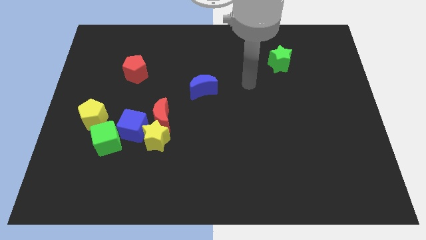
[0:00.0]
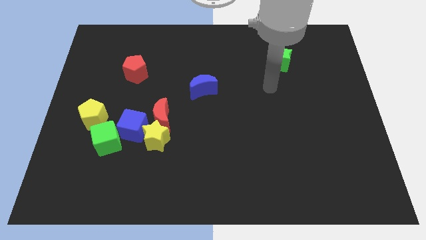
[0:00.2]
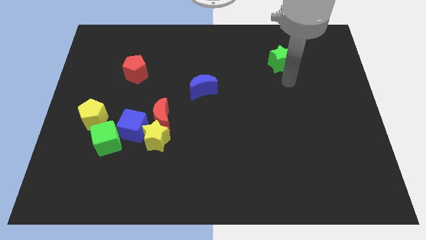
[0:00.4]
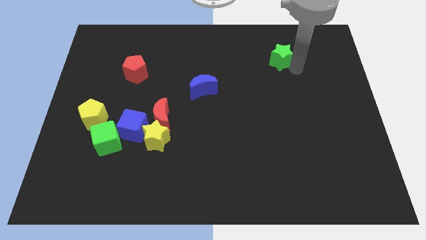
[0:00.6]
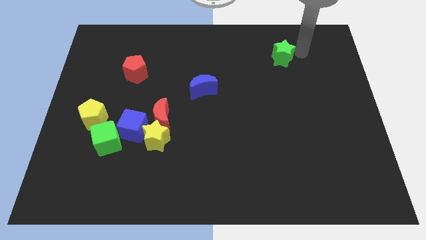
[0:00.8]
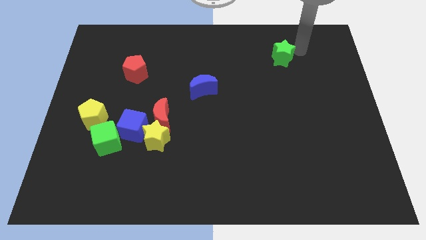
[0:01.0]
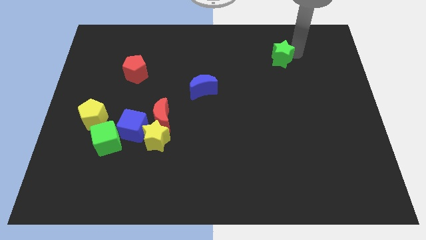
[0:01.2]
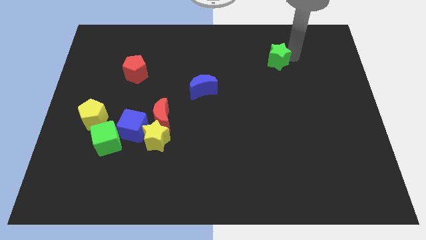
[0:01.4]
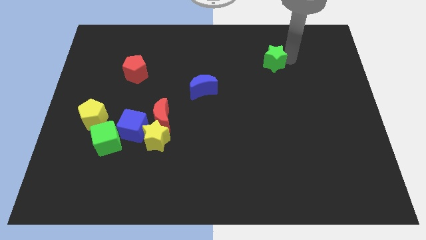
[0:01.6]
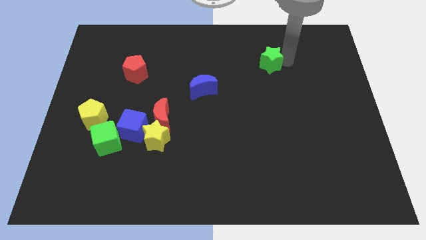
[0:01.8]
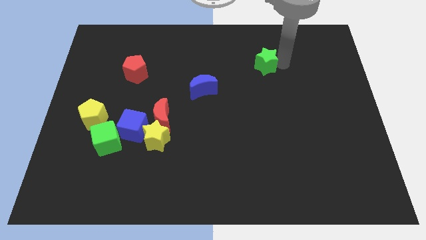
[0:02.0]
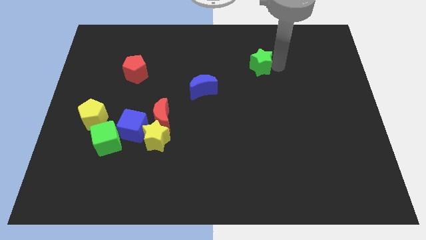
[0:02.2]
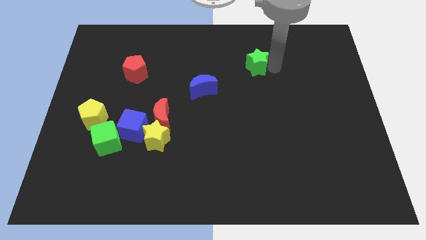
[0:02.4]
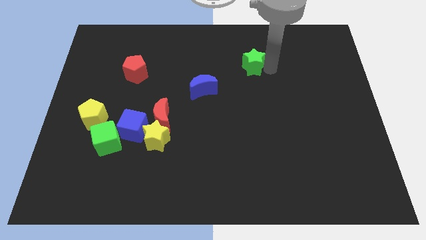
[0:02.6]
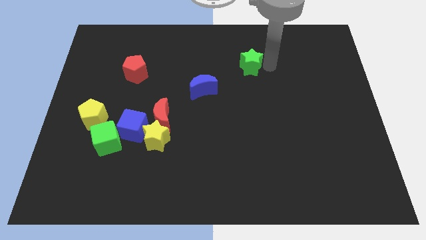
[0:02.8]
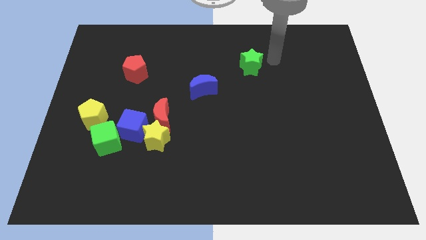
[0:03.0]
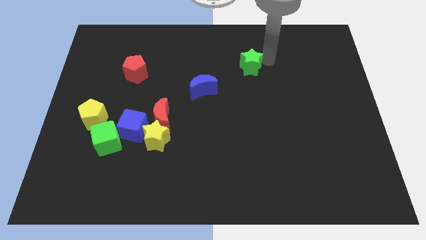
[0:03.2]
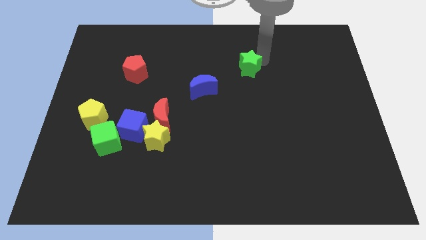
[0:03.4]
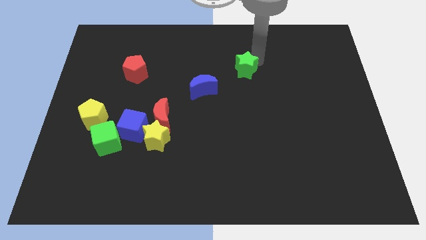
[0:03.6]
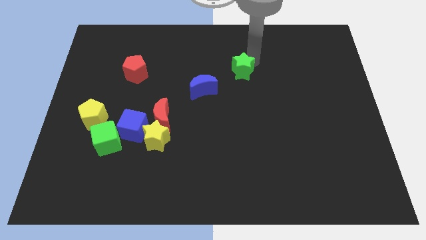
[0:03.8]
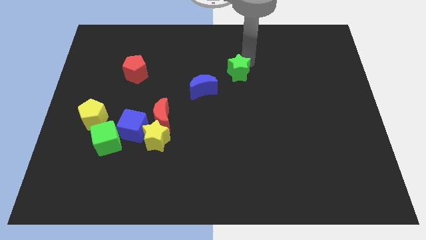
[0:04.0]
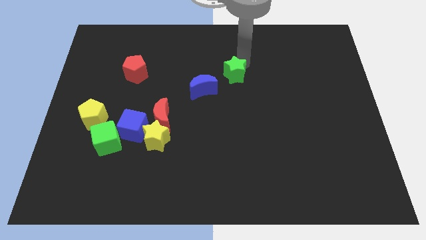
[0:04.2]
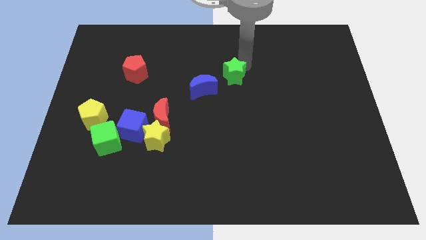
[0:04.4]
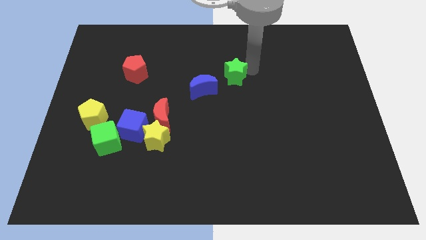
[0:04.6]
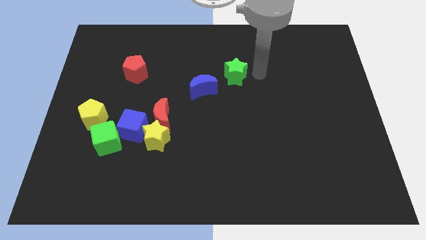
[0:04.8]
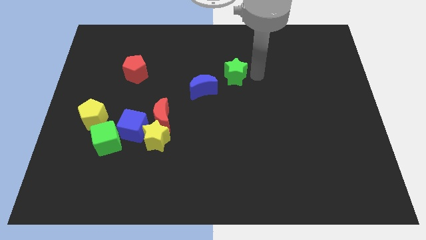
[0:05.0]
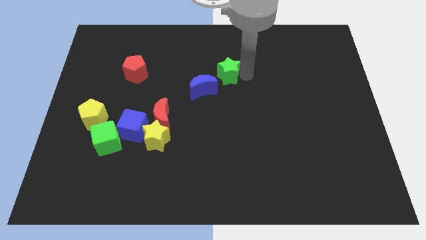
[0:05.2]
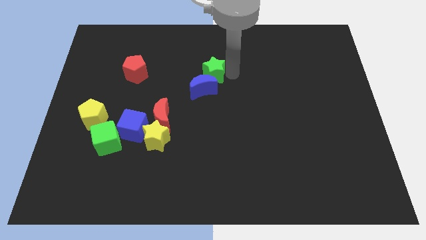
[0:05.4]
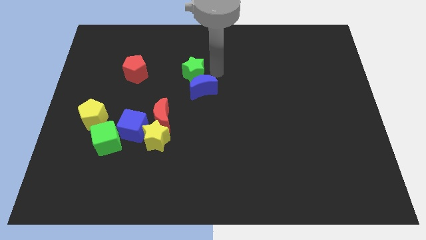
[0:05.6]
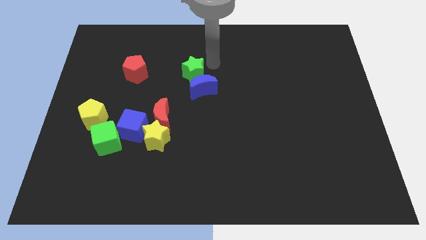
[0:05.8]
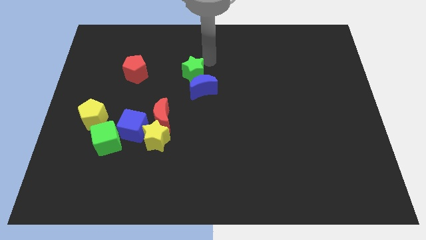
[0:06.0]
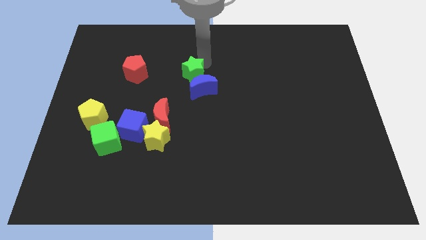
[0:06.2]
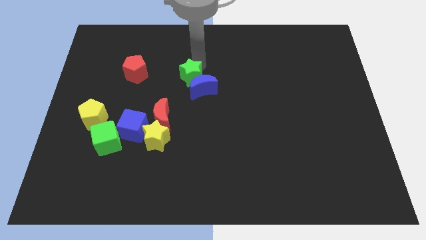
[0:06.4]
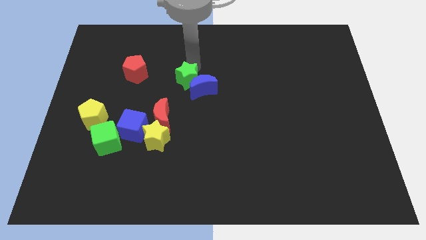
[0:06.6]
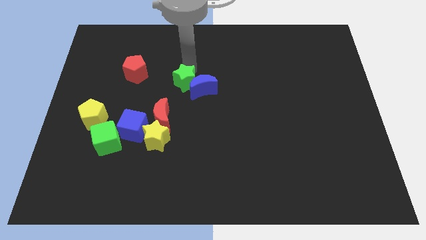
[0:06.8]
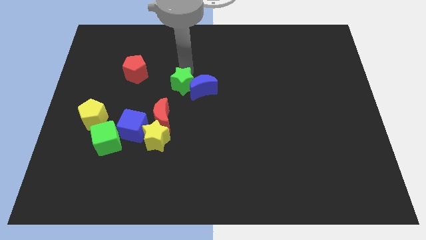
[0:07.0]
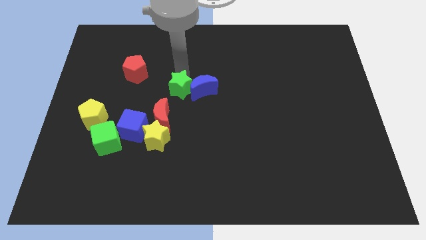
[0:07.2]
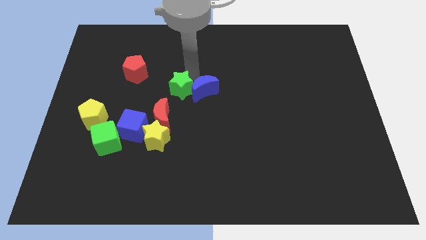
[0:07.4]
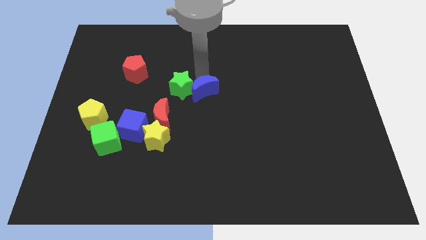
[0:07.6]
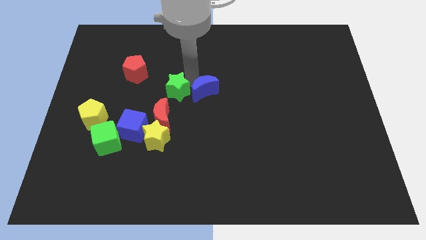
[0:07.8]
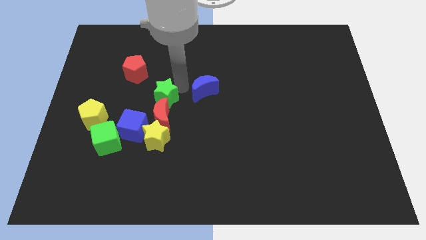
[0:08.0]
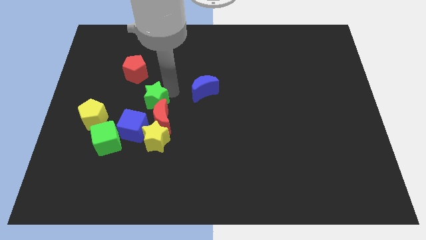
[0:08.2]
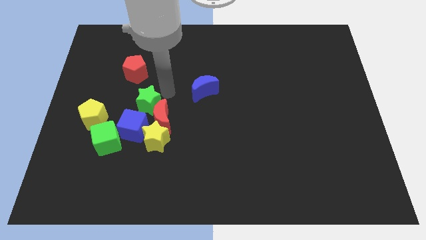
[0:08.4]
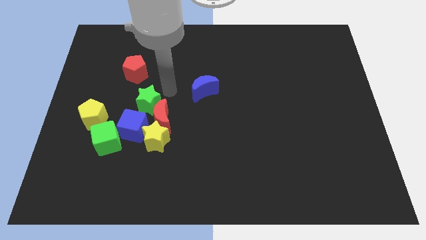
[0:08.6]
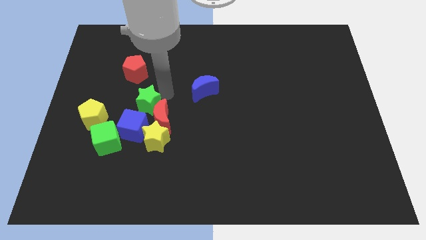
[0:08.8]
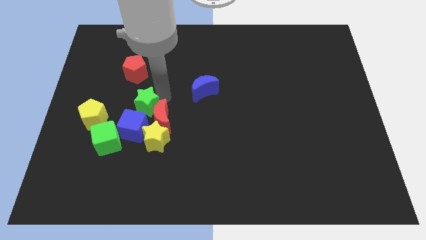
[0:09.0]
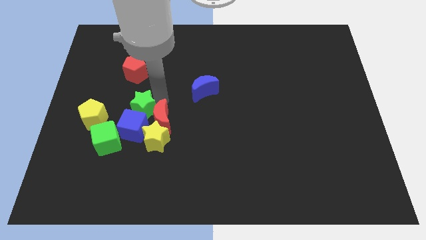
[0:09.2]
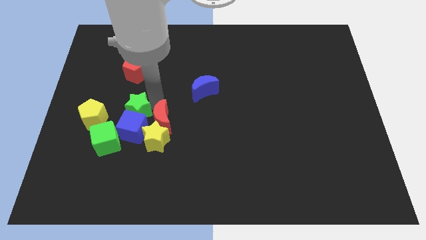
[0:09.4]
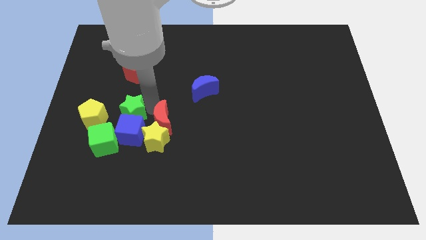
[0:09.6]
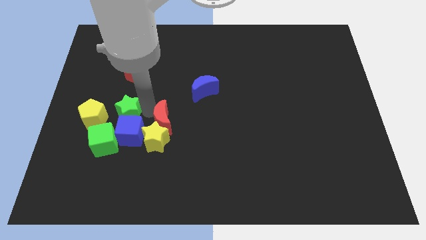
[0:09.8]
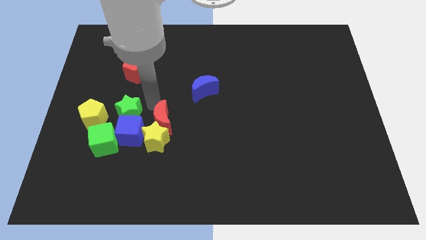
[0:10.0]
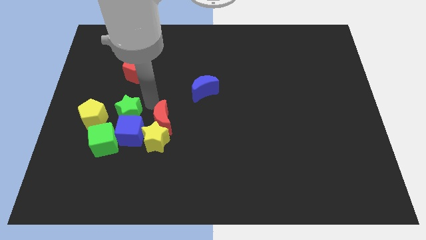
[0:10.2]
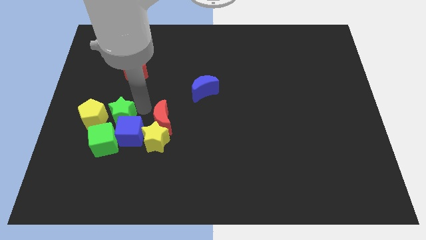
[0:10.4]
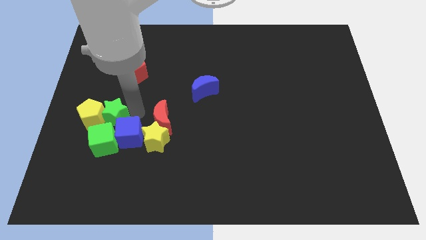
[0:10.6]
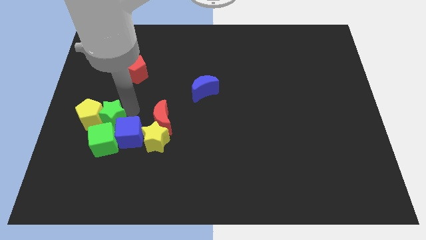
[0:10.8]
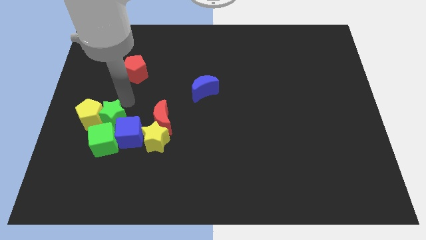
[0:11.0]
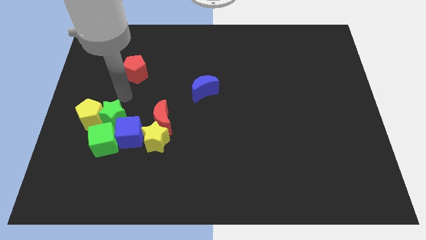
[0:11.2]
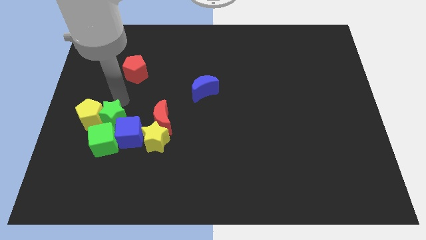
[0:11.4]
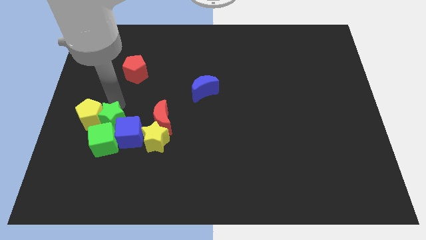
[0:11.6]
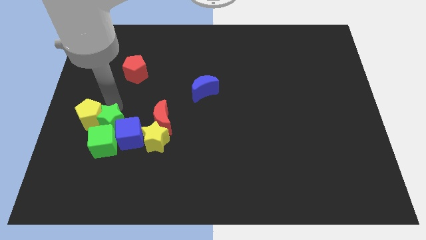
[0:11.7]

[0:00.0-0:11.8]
push the green star next to the green cube

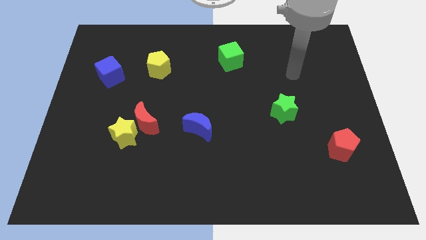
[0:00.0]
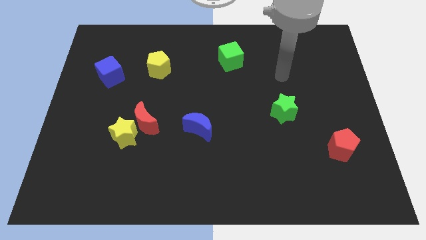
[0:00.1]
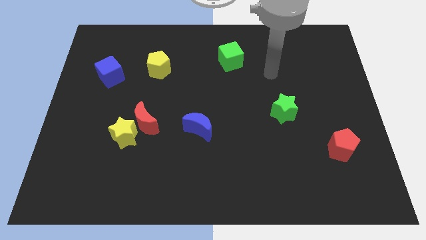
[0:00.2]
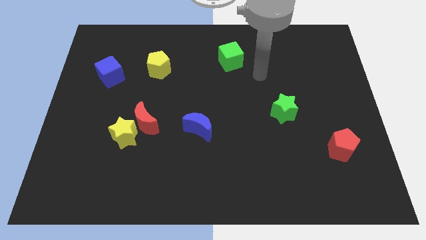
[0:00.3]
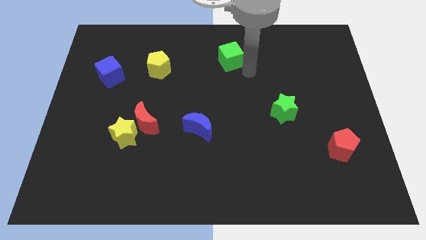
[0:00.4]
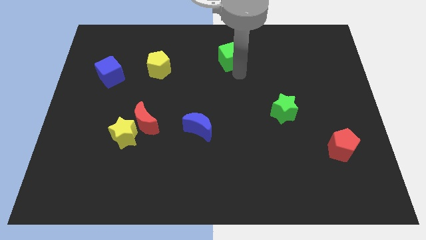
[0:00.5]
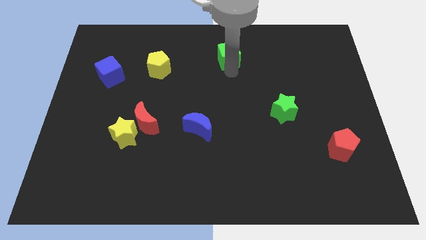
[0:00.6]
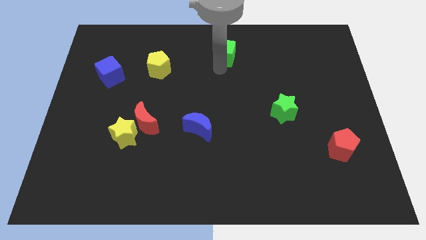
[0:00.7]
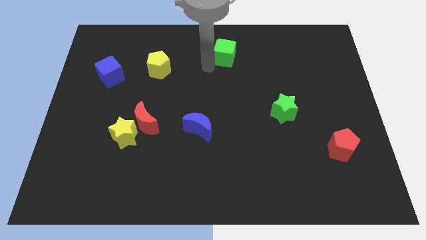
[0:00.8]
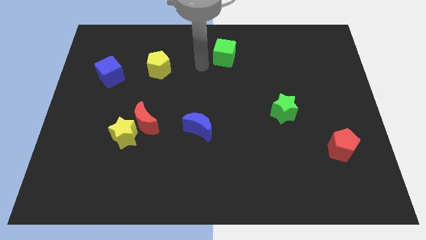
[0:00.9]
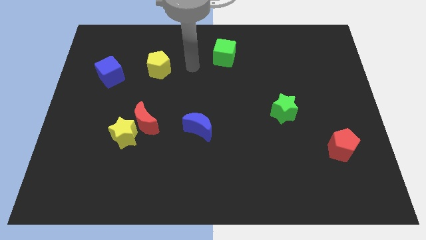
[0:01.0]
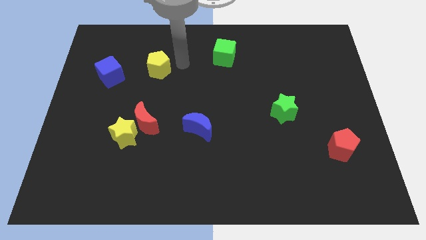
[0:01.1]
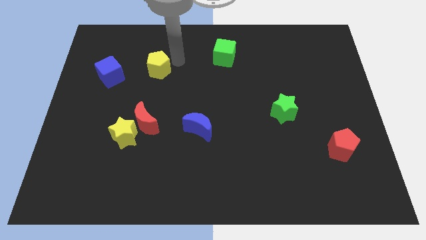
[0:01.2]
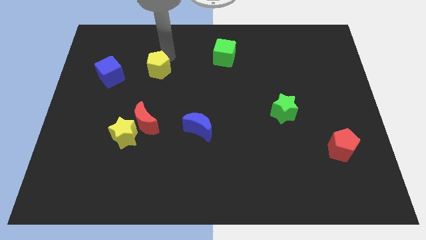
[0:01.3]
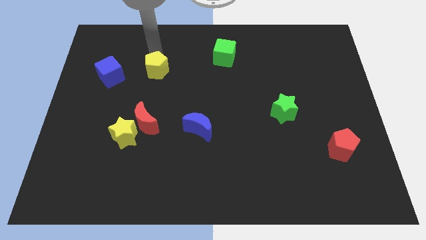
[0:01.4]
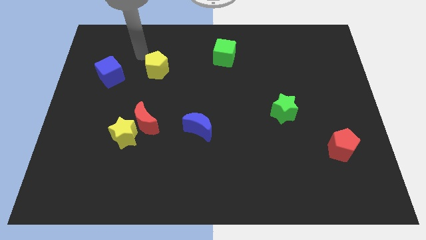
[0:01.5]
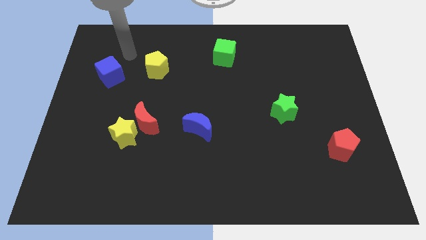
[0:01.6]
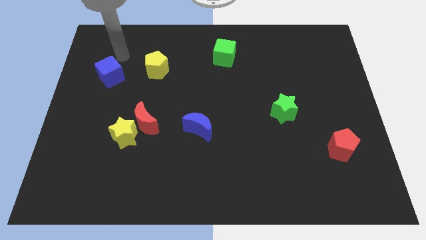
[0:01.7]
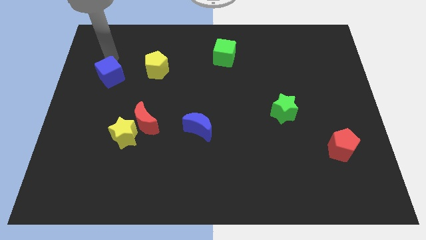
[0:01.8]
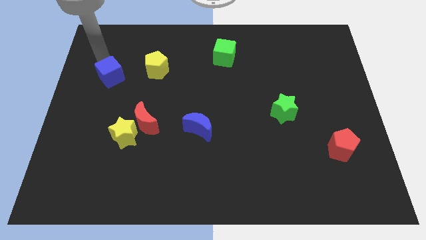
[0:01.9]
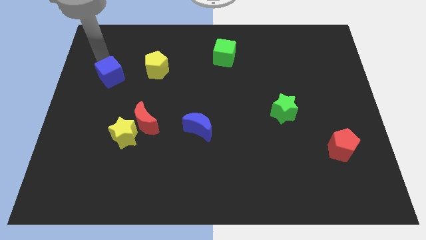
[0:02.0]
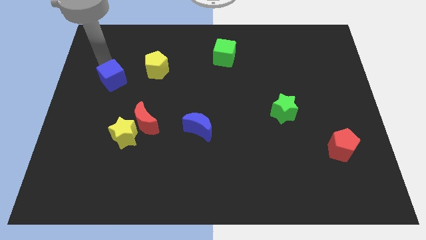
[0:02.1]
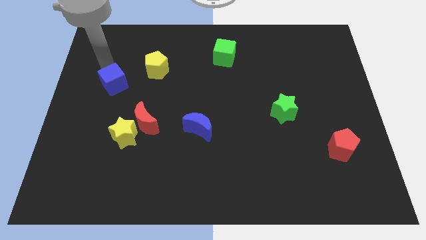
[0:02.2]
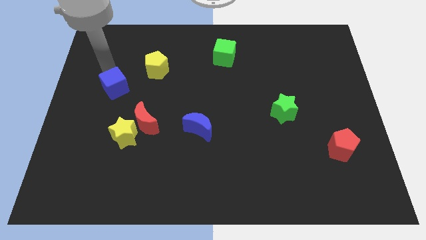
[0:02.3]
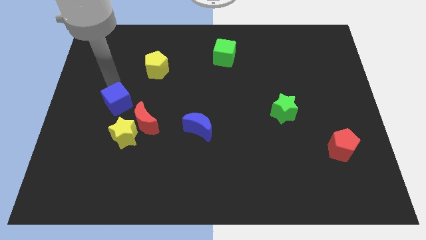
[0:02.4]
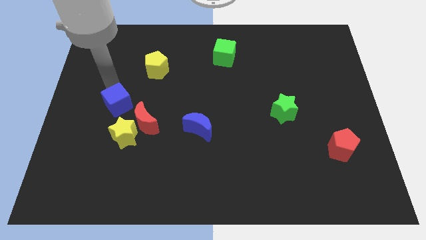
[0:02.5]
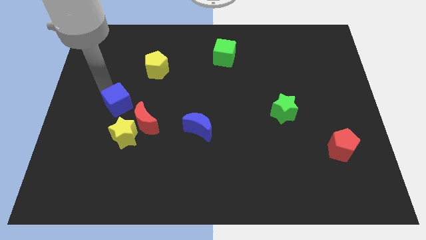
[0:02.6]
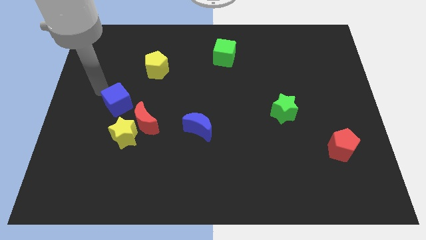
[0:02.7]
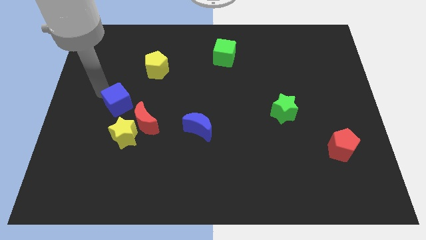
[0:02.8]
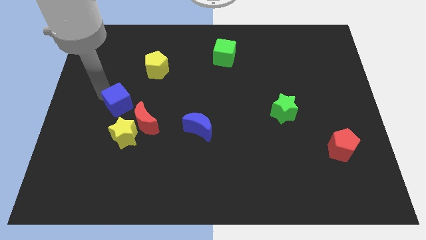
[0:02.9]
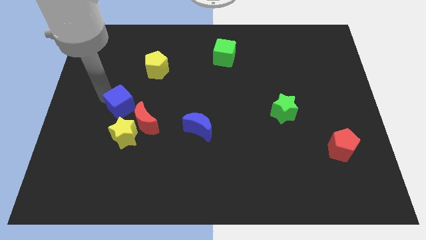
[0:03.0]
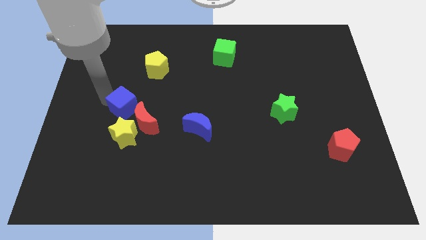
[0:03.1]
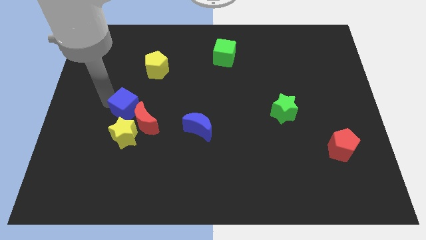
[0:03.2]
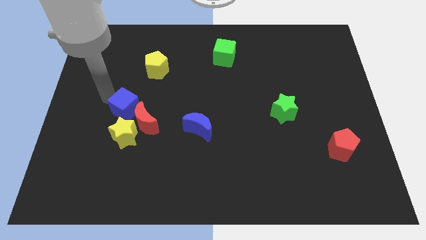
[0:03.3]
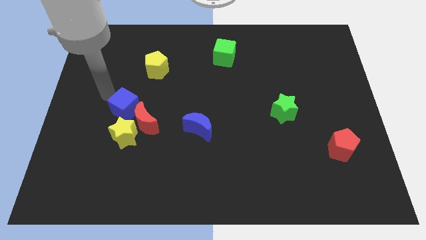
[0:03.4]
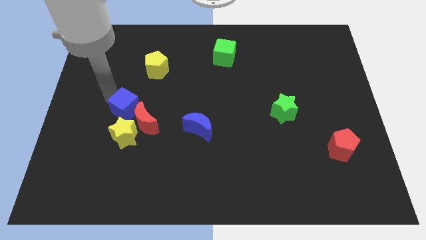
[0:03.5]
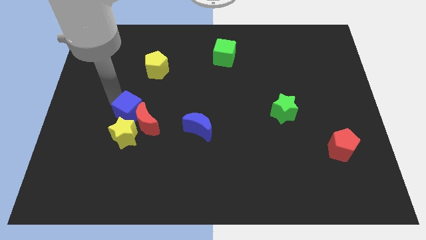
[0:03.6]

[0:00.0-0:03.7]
push the blue cube close to the red moon
